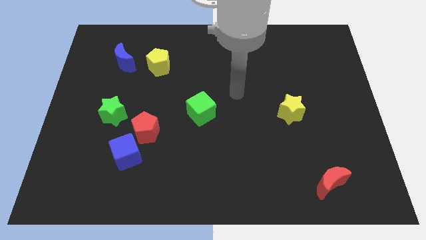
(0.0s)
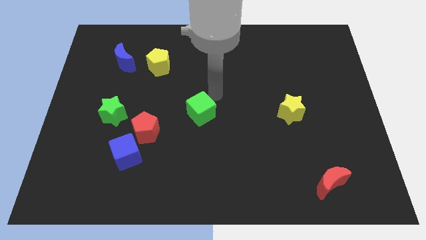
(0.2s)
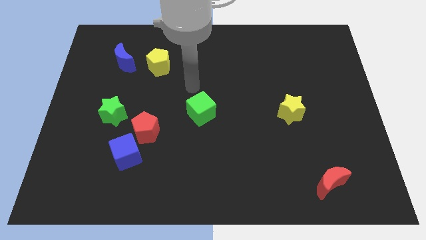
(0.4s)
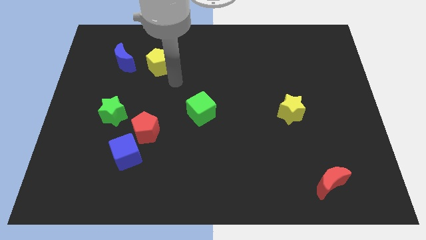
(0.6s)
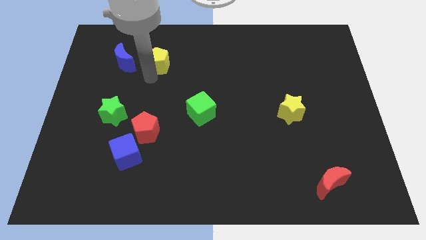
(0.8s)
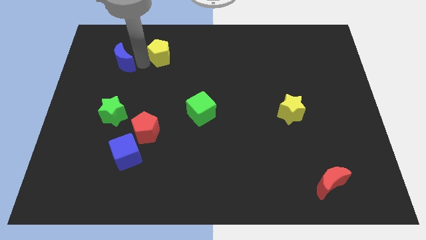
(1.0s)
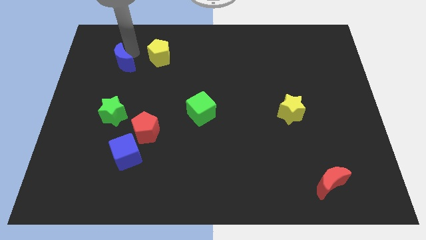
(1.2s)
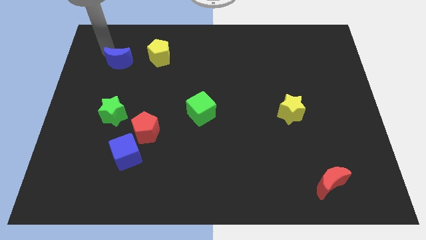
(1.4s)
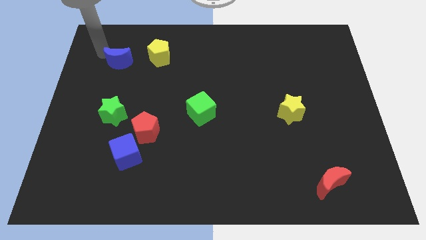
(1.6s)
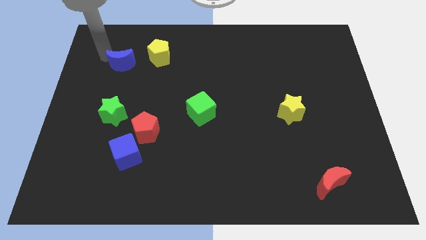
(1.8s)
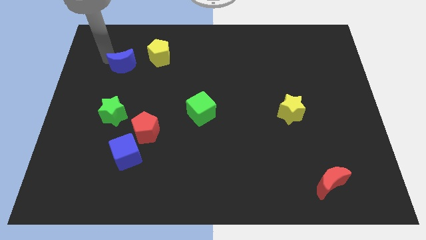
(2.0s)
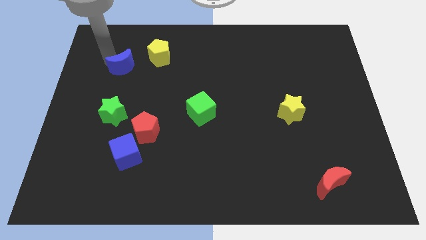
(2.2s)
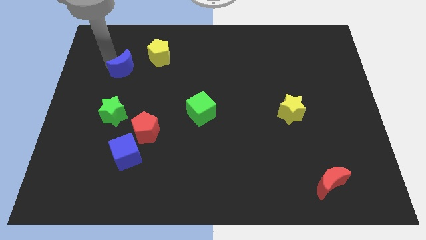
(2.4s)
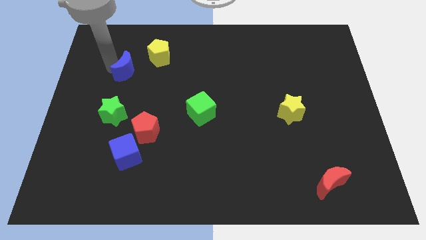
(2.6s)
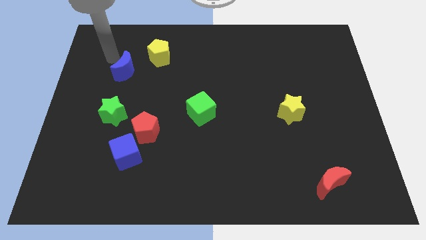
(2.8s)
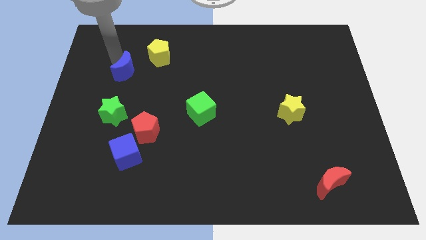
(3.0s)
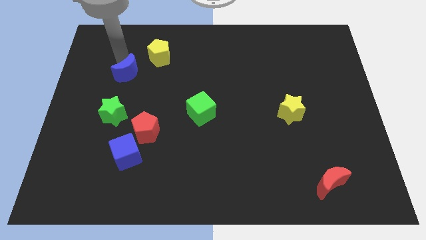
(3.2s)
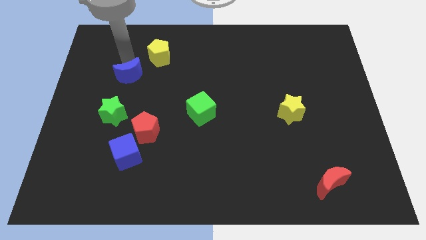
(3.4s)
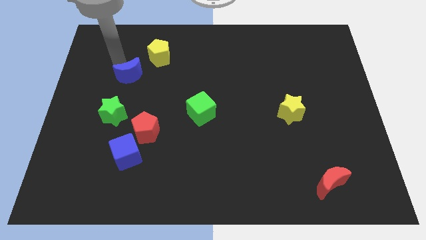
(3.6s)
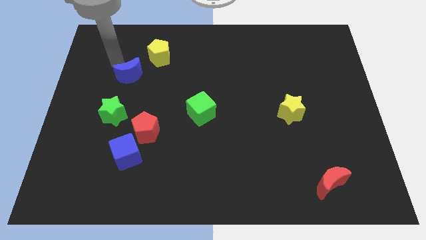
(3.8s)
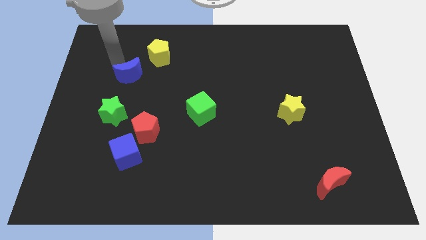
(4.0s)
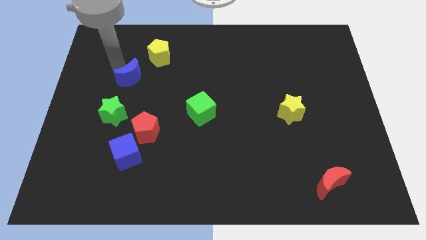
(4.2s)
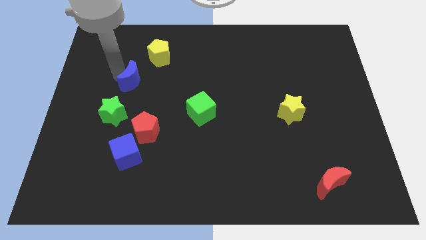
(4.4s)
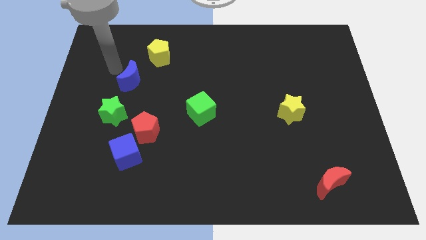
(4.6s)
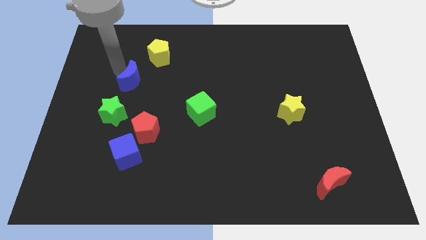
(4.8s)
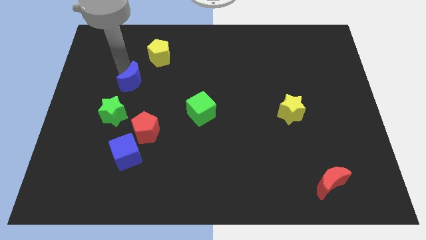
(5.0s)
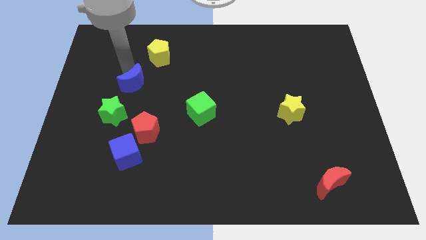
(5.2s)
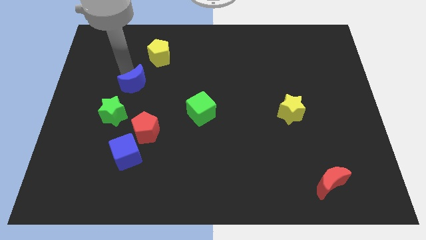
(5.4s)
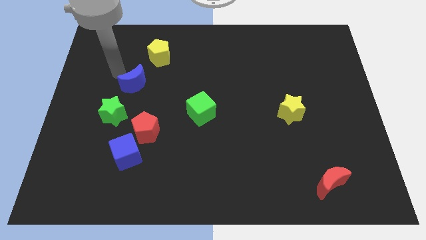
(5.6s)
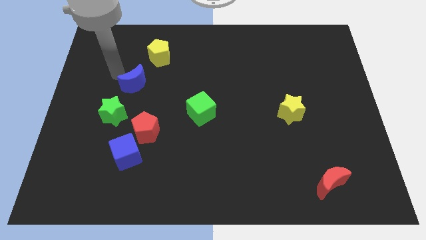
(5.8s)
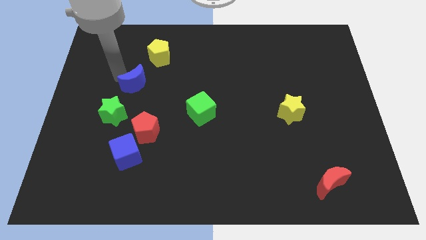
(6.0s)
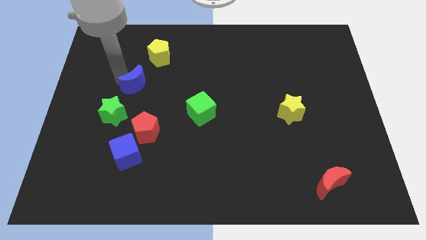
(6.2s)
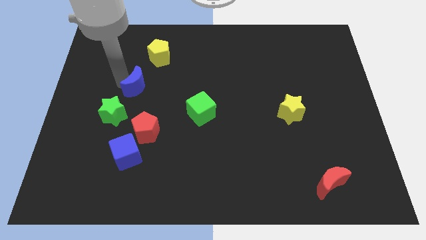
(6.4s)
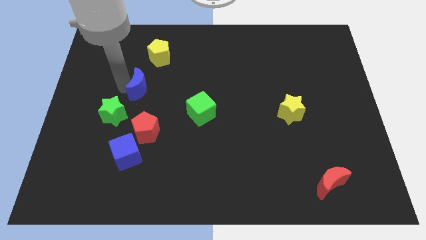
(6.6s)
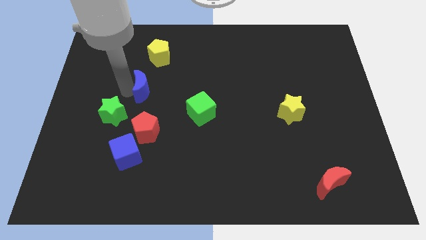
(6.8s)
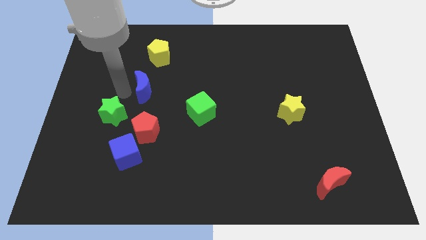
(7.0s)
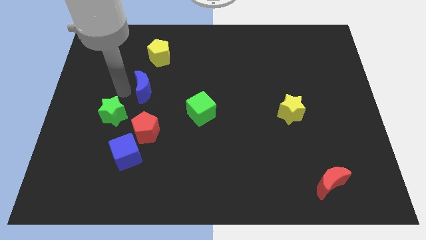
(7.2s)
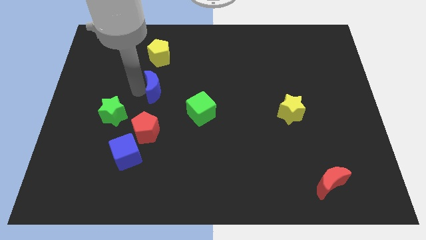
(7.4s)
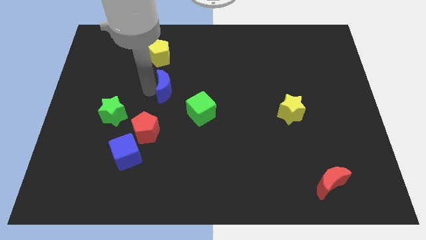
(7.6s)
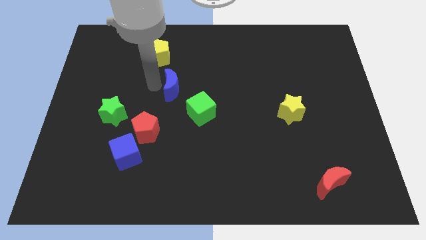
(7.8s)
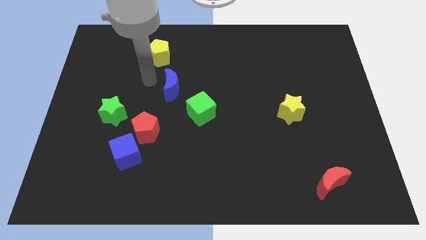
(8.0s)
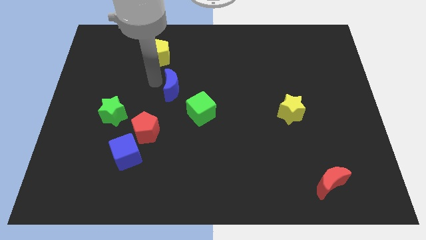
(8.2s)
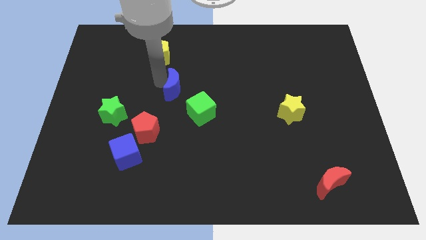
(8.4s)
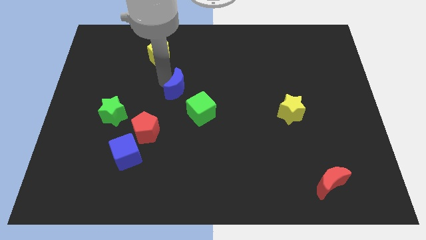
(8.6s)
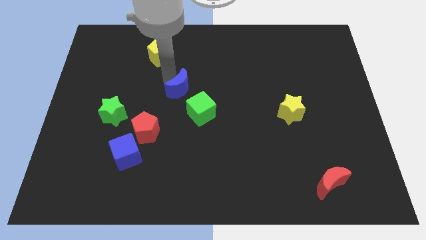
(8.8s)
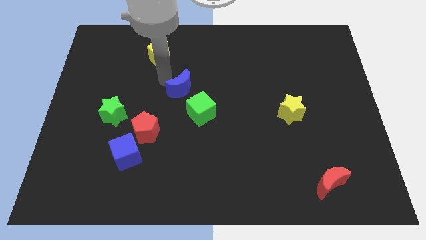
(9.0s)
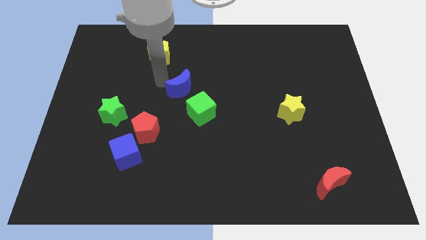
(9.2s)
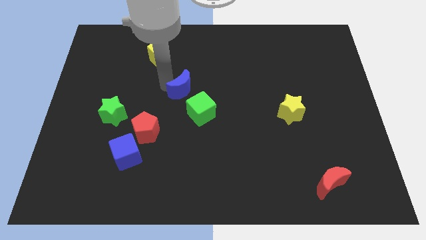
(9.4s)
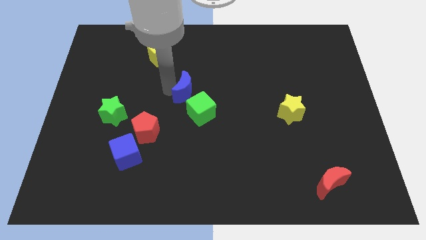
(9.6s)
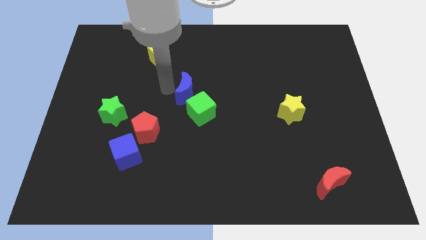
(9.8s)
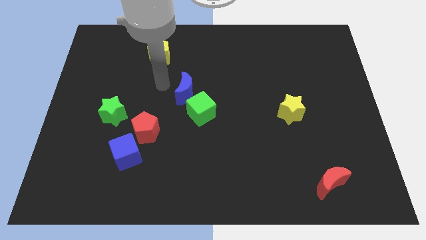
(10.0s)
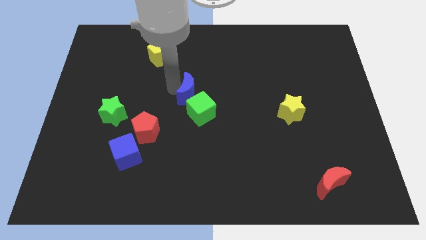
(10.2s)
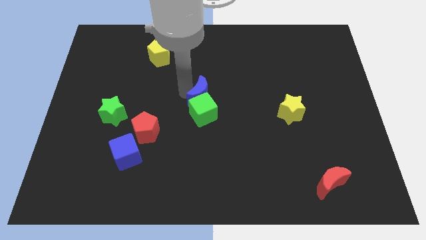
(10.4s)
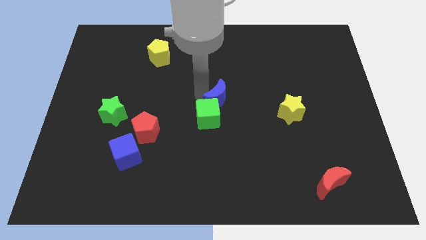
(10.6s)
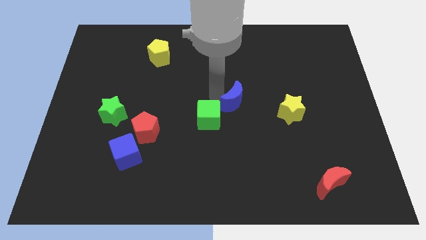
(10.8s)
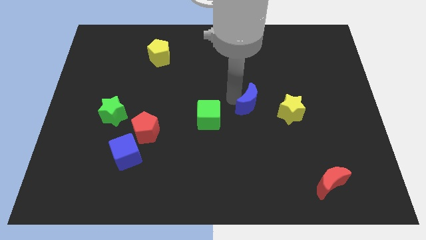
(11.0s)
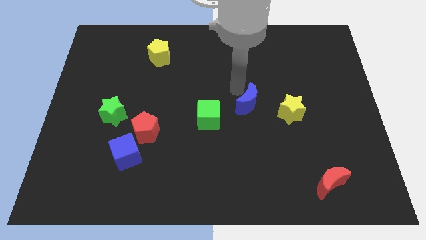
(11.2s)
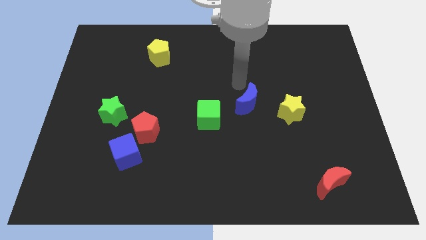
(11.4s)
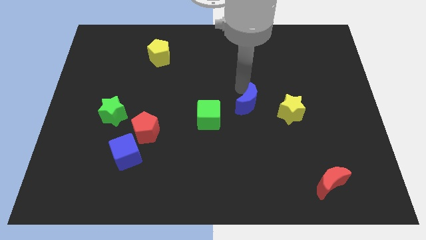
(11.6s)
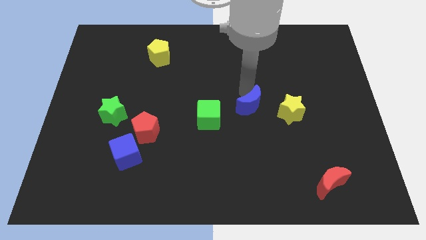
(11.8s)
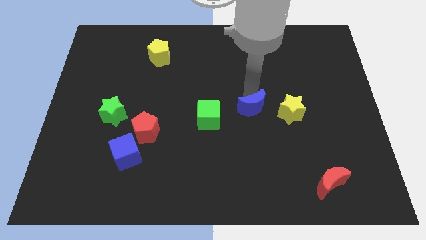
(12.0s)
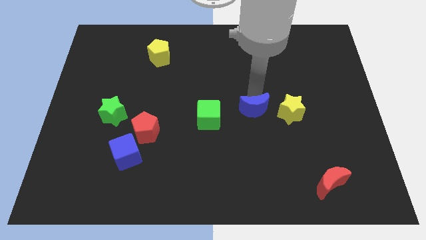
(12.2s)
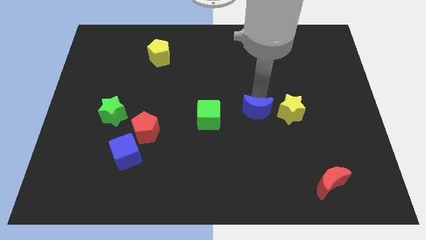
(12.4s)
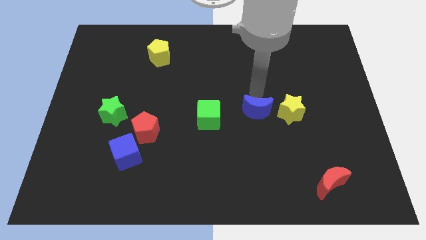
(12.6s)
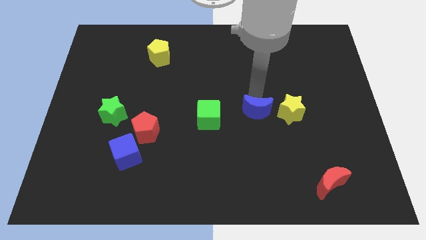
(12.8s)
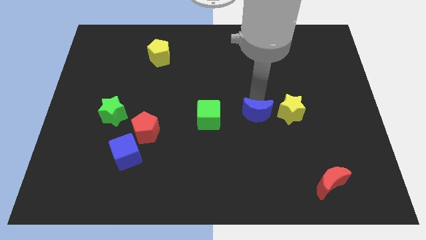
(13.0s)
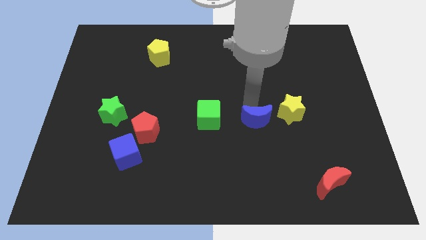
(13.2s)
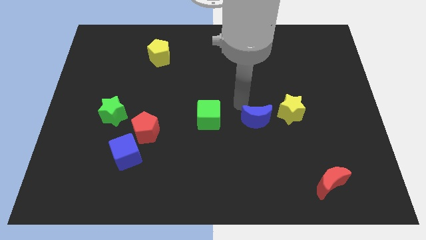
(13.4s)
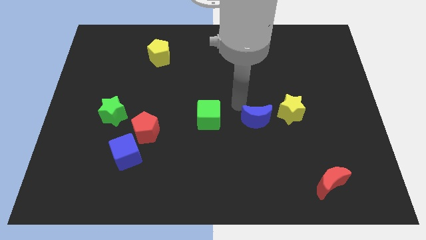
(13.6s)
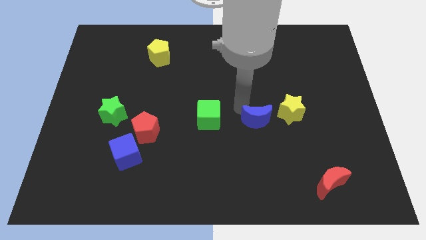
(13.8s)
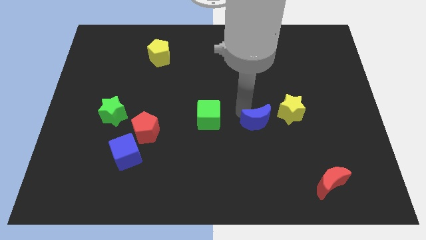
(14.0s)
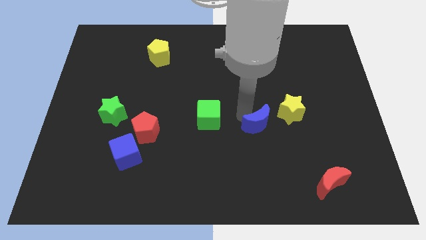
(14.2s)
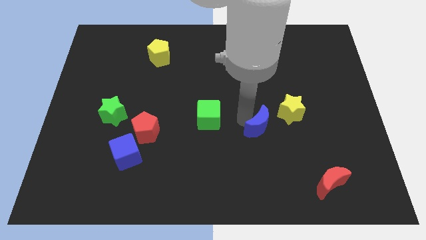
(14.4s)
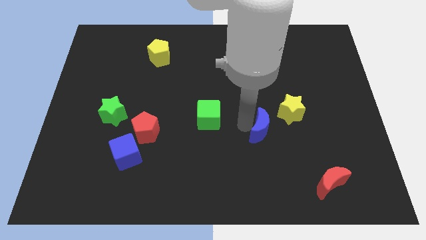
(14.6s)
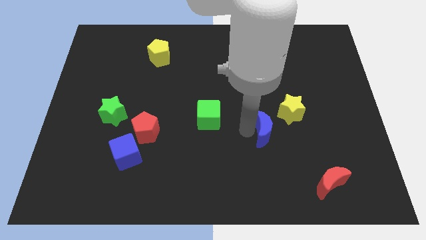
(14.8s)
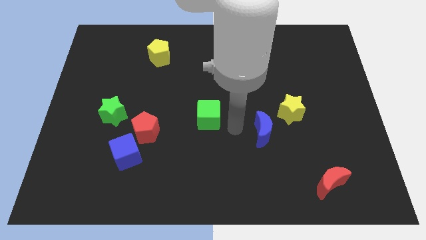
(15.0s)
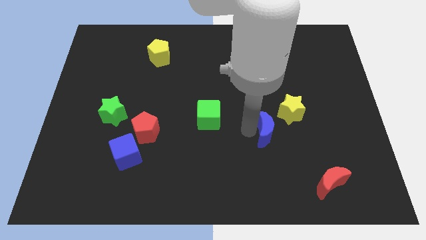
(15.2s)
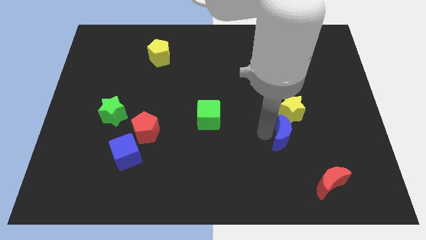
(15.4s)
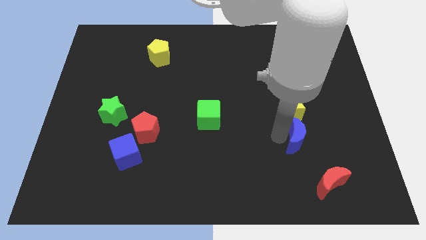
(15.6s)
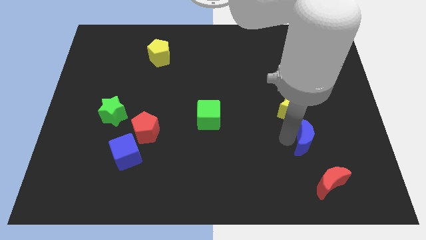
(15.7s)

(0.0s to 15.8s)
put the blue moon above the red moon
